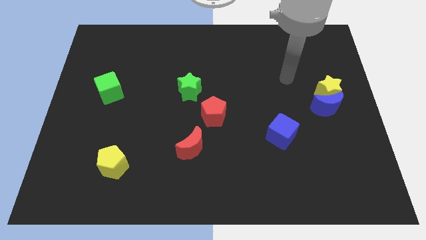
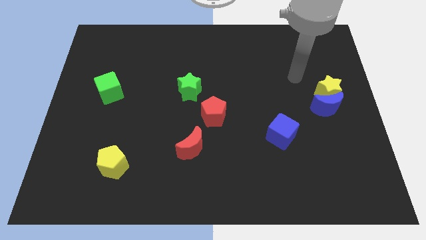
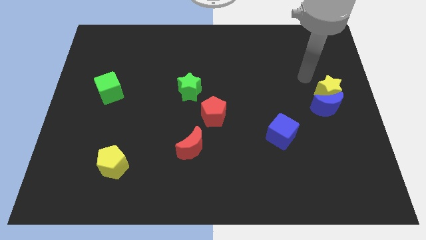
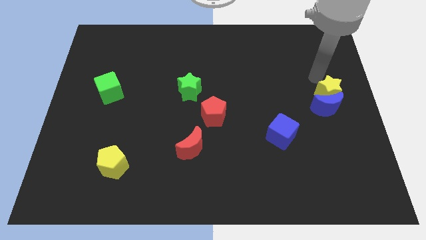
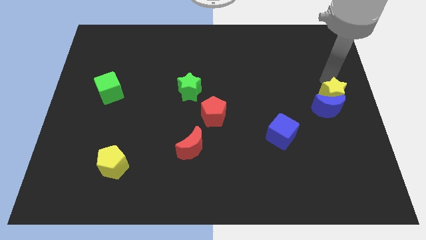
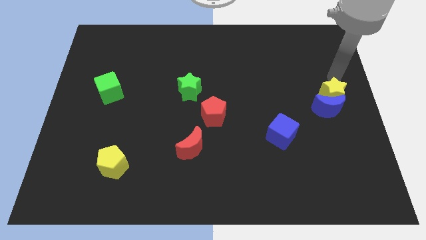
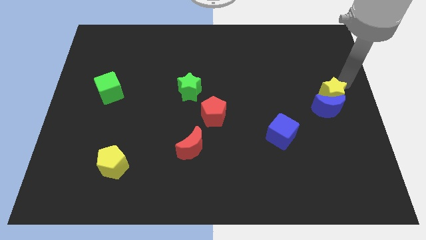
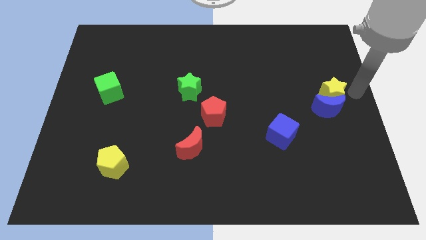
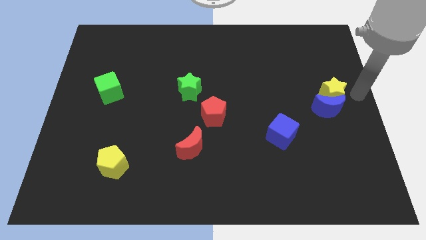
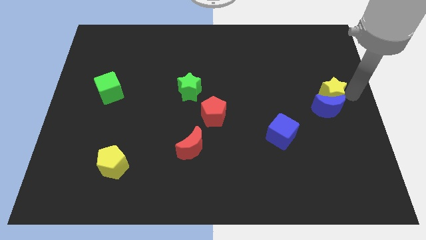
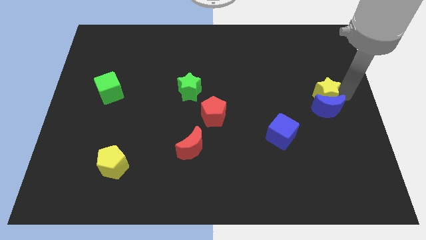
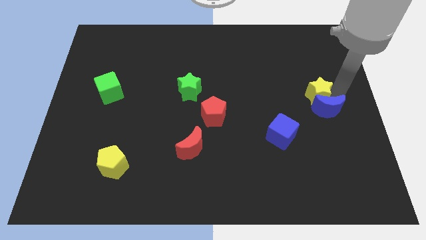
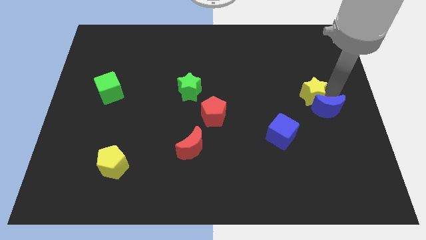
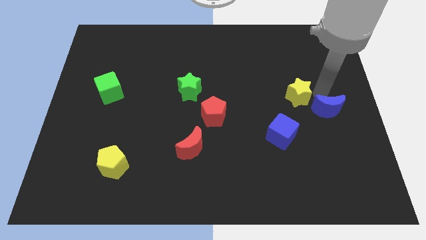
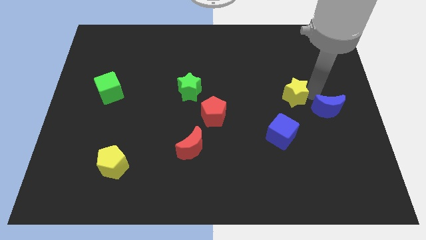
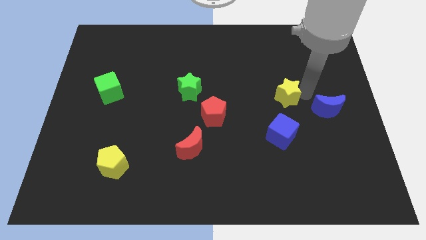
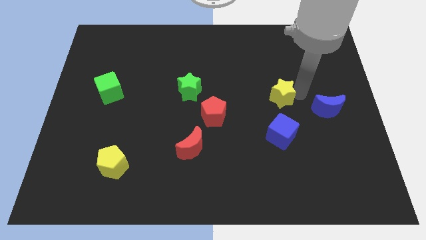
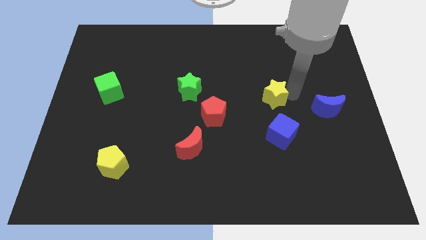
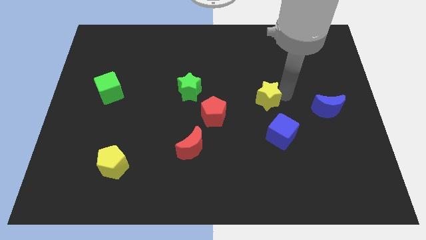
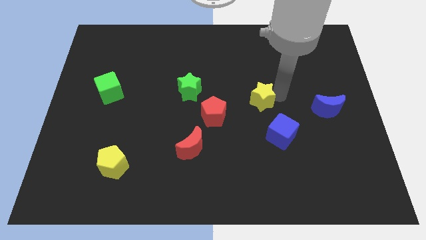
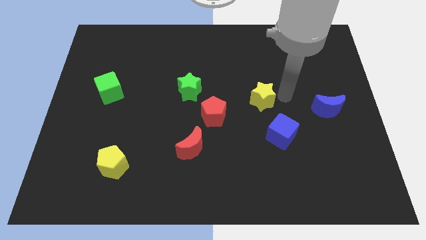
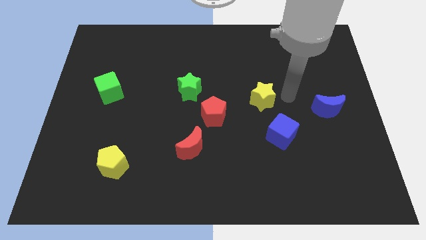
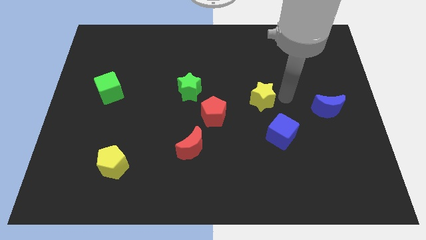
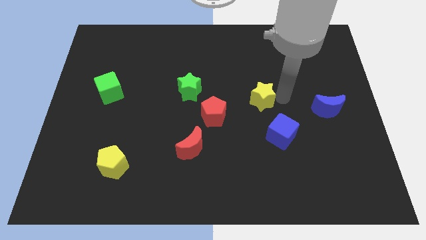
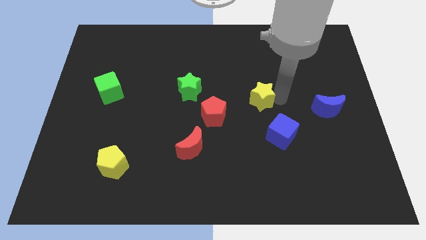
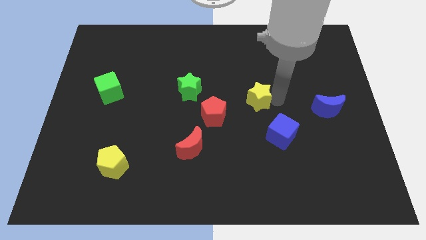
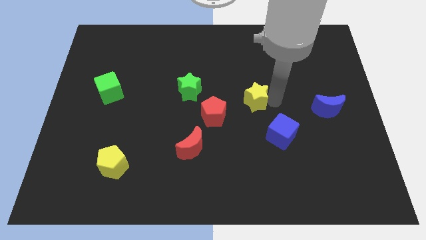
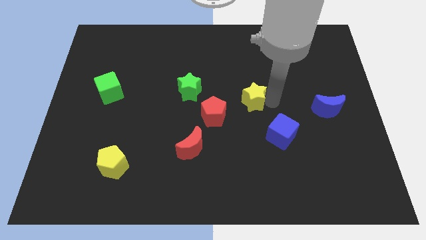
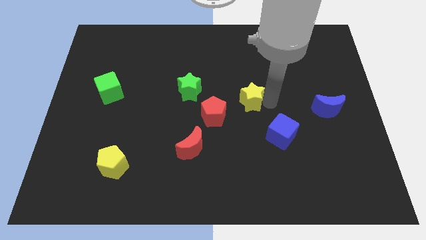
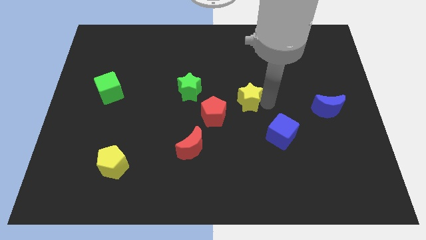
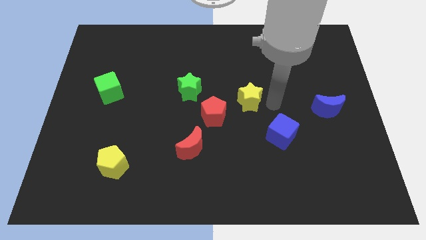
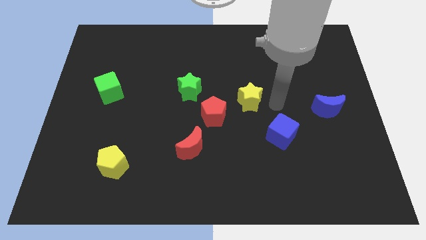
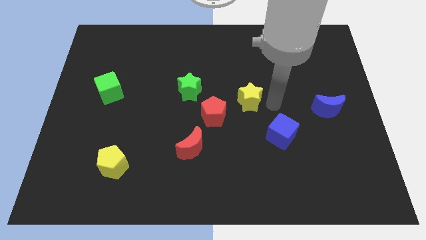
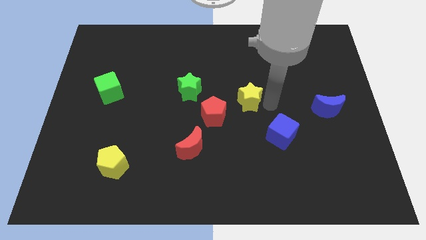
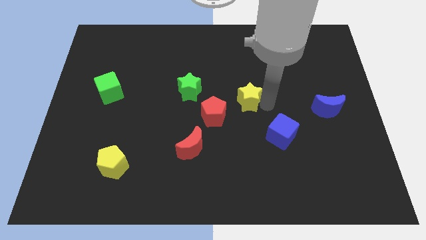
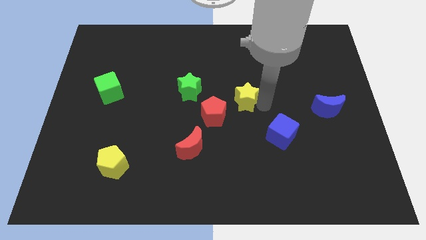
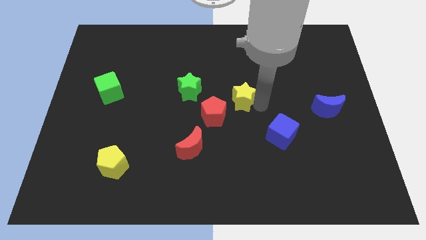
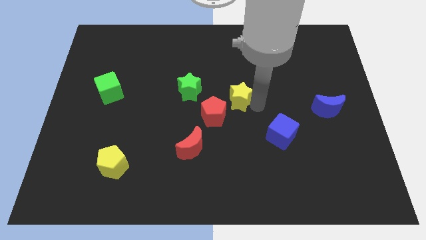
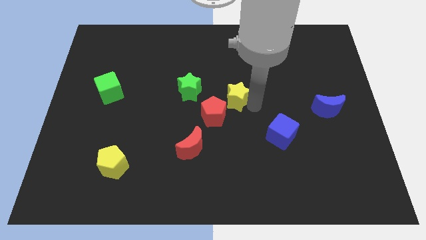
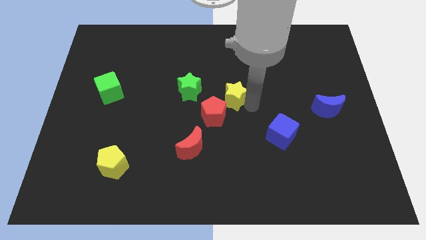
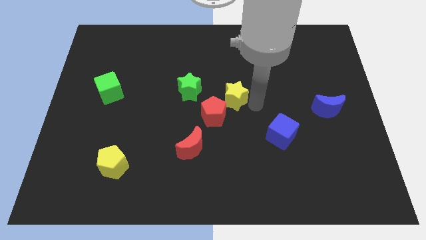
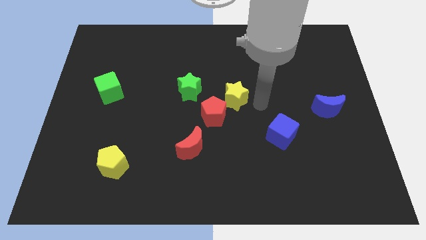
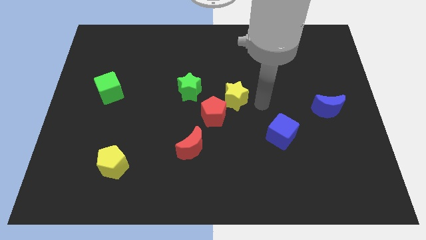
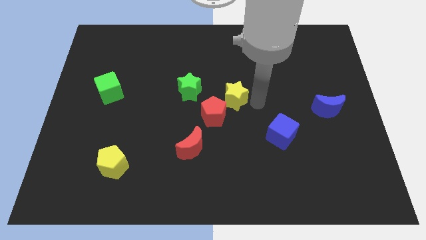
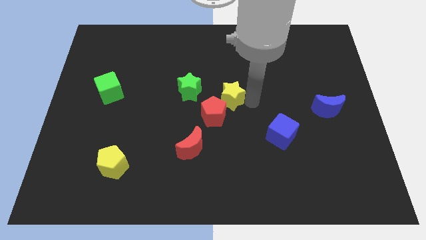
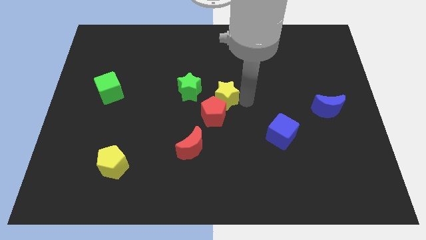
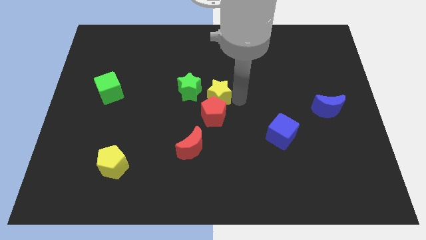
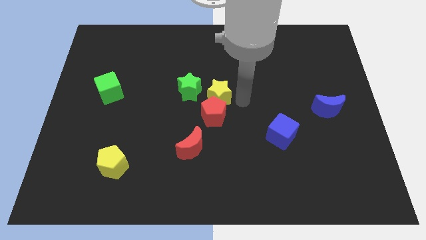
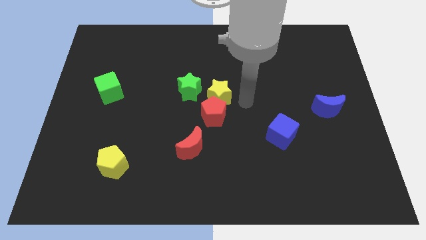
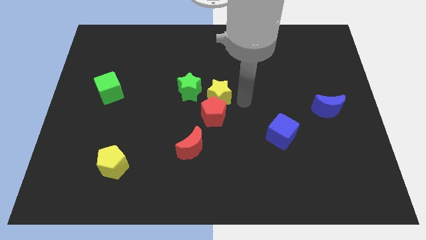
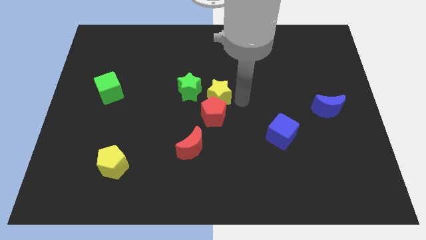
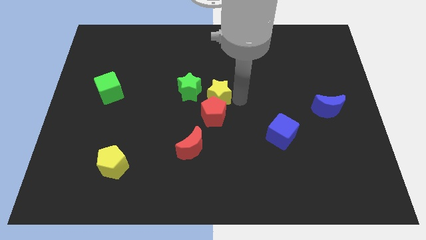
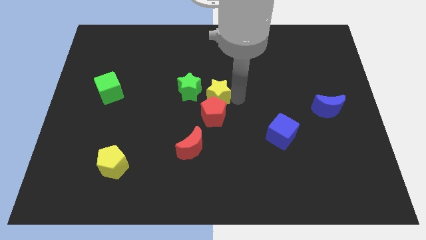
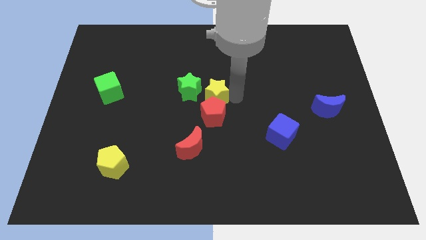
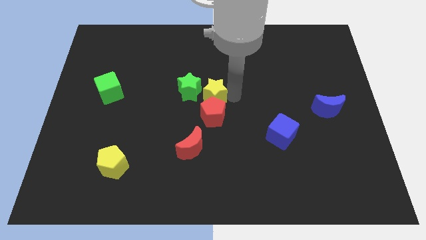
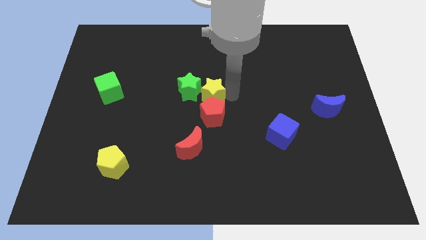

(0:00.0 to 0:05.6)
slide the yellow star close to the green star
